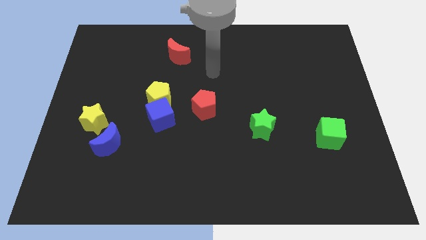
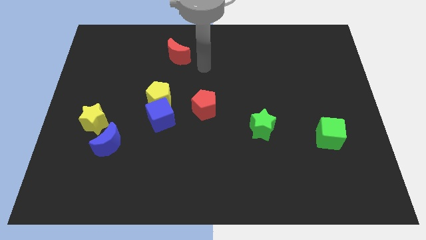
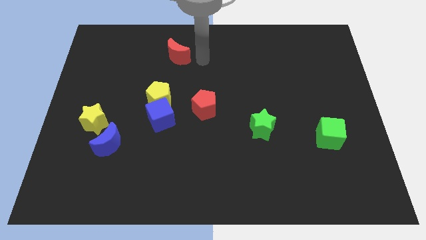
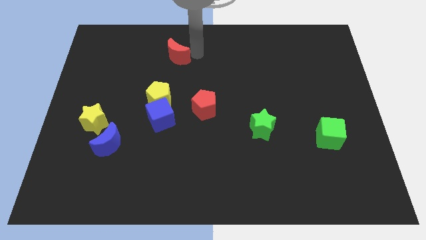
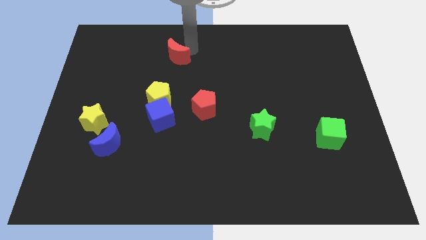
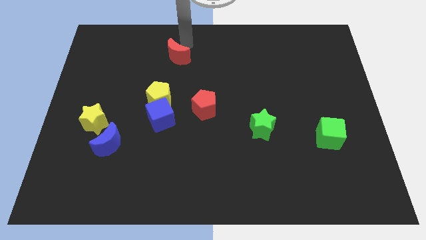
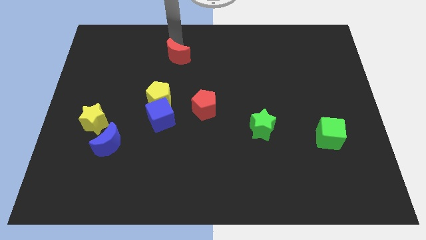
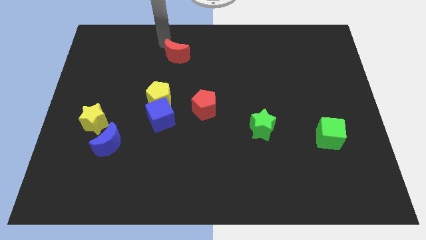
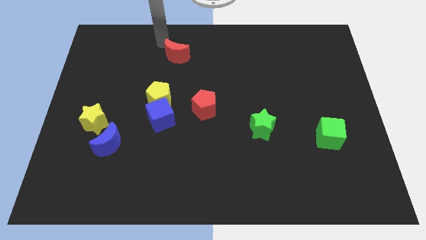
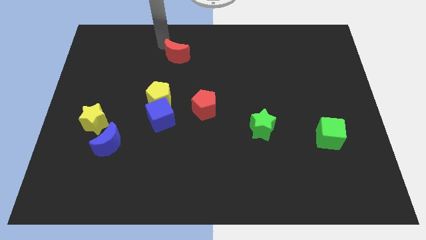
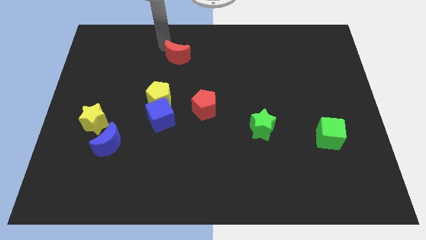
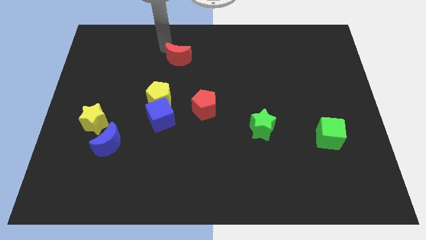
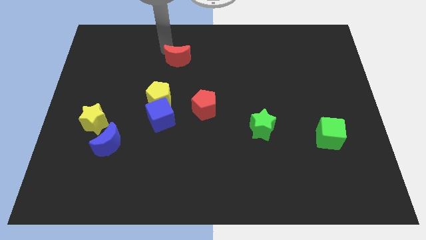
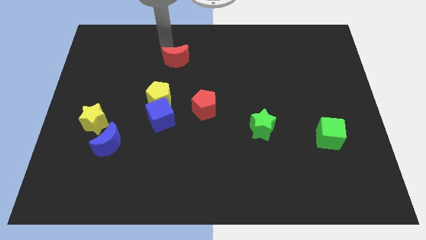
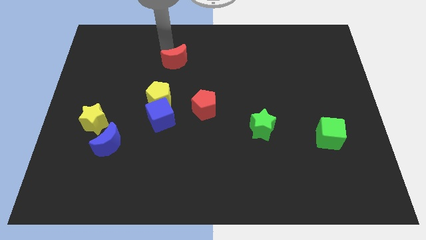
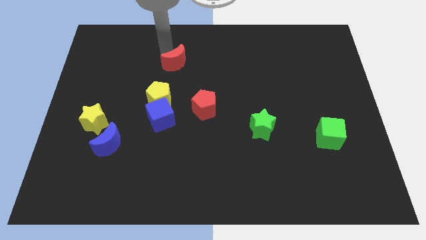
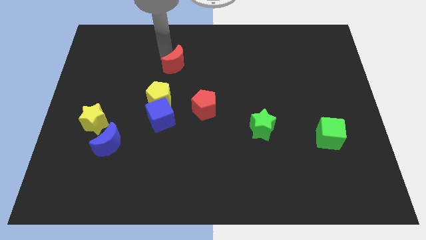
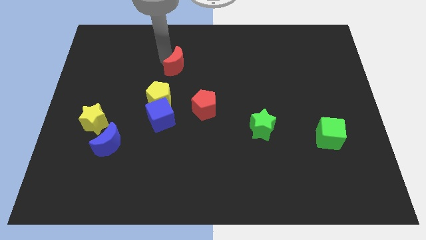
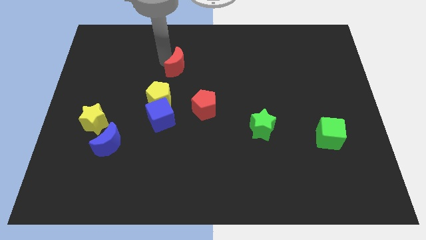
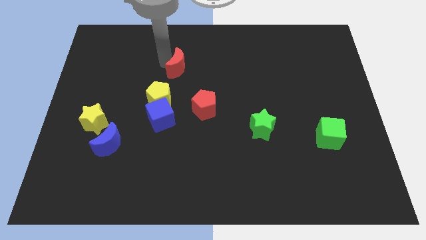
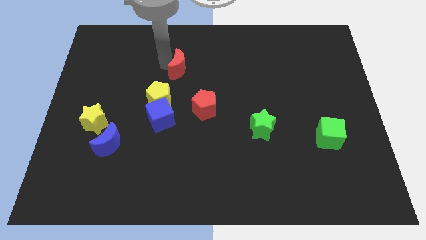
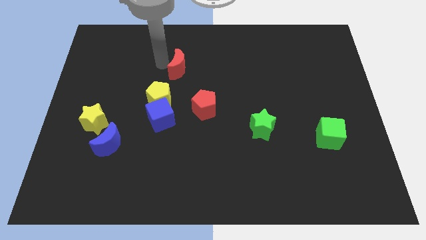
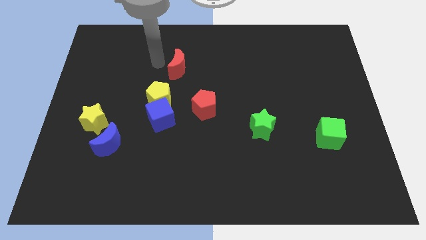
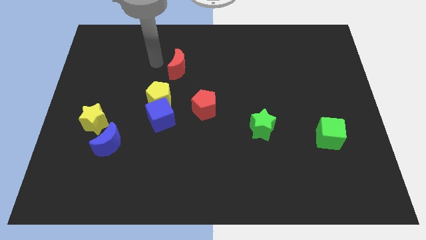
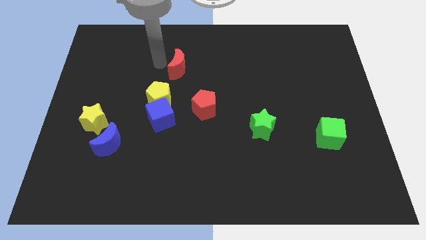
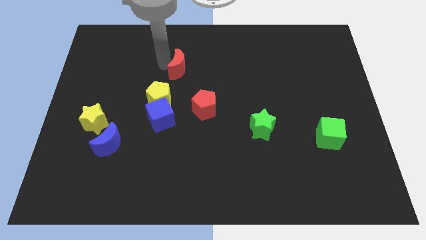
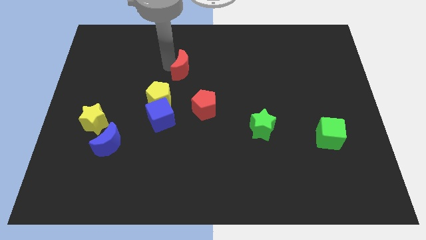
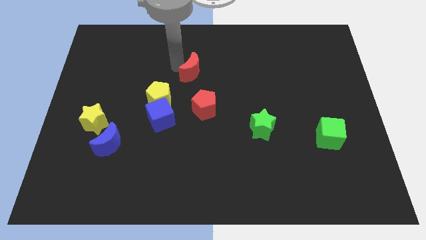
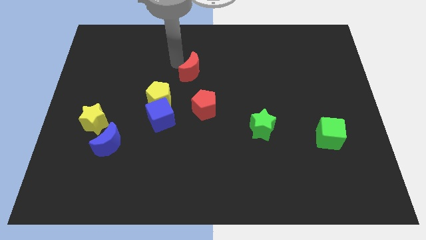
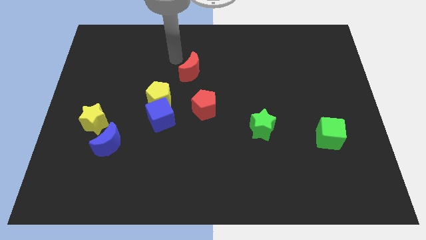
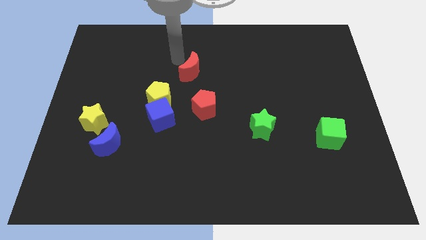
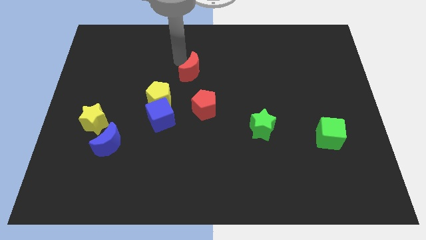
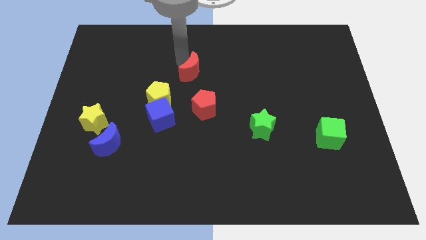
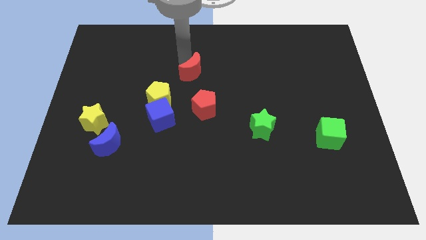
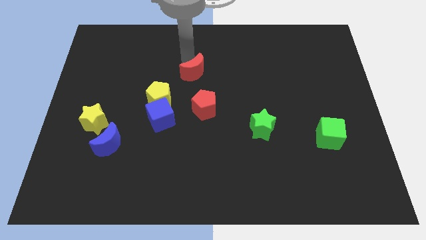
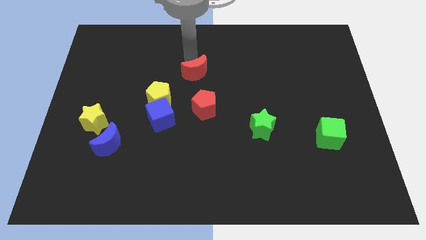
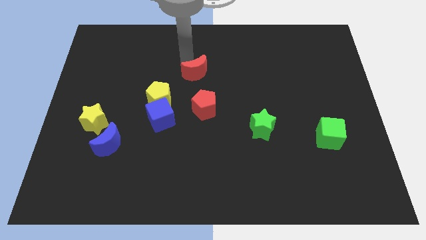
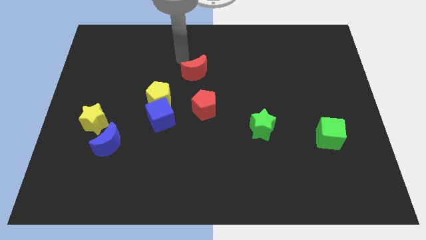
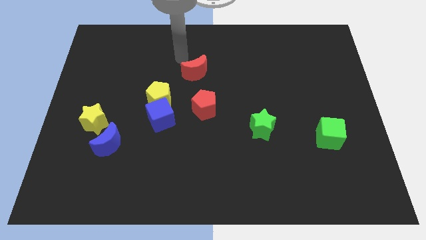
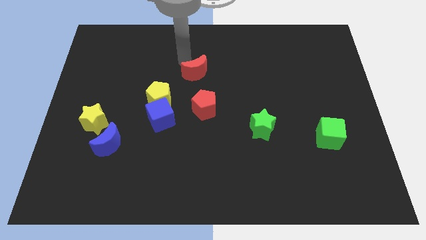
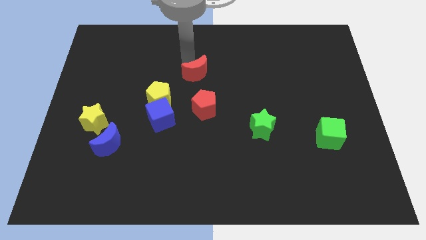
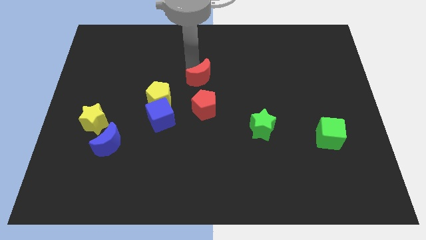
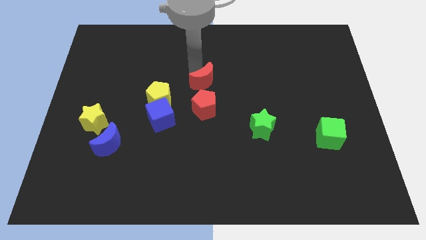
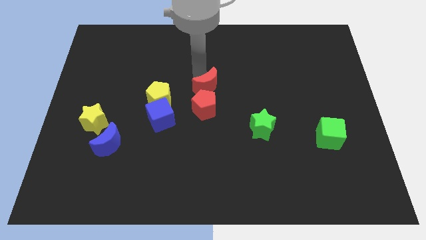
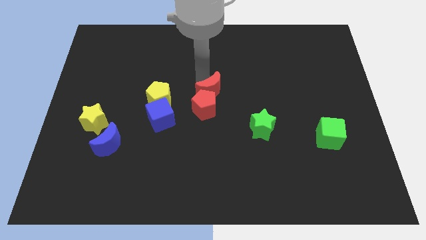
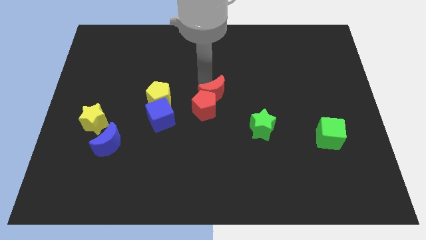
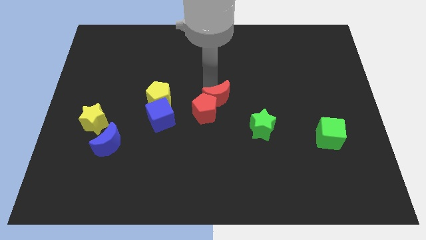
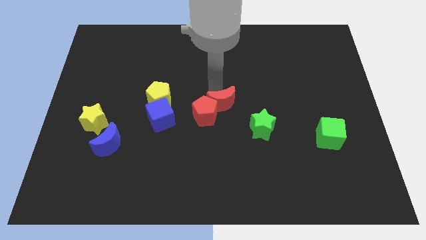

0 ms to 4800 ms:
move the red moon to the right of the blue cube

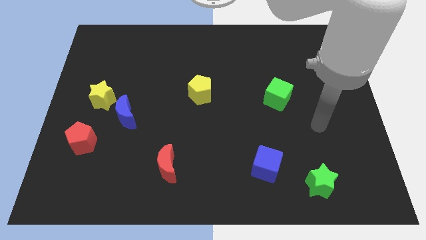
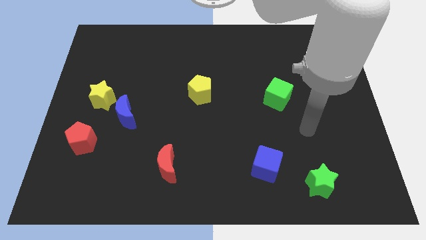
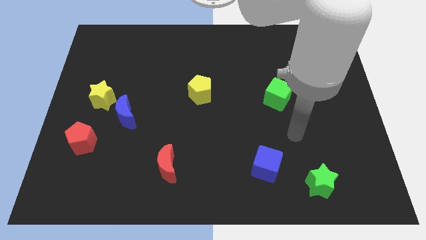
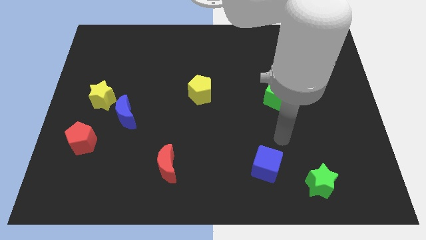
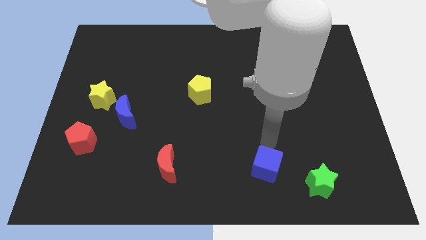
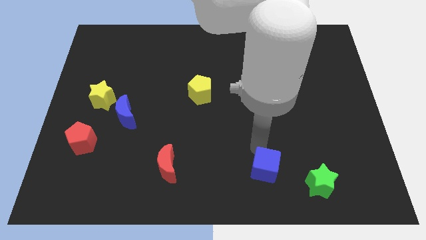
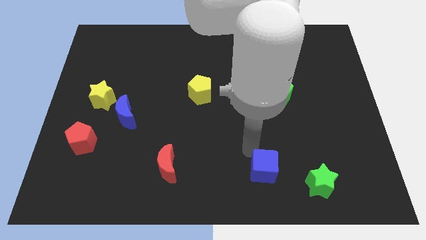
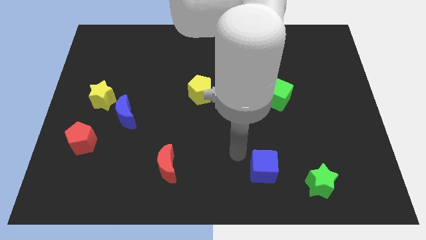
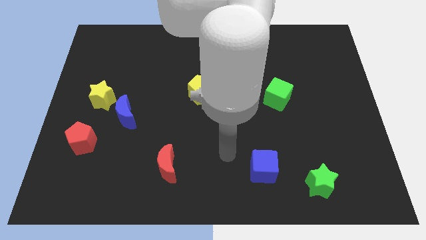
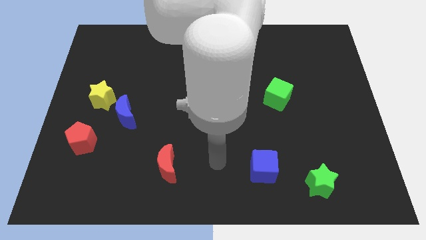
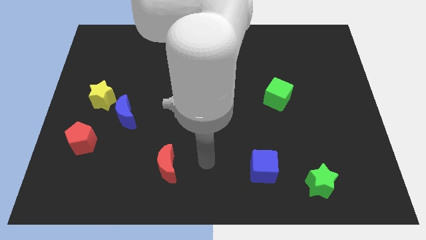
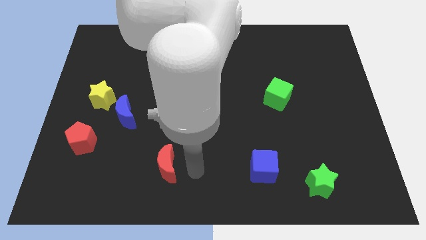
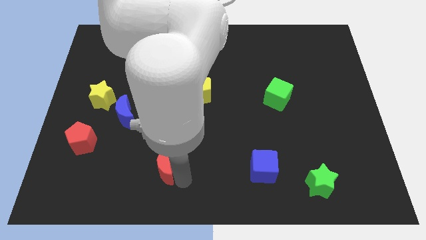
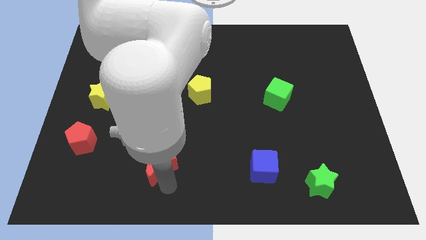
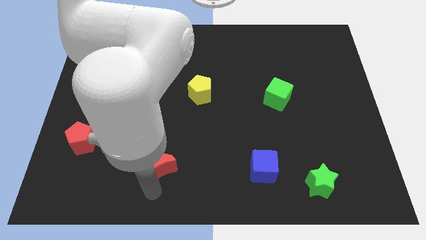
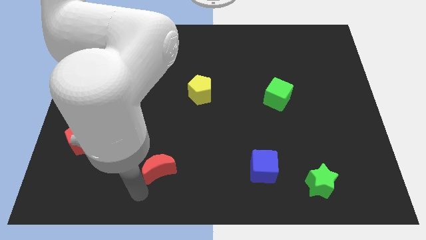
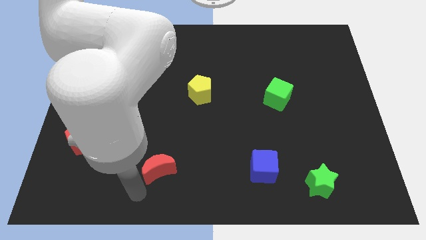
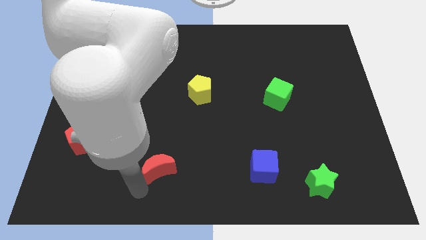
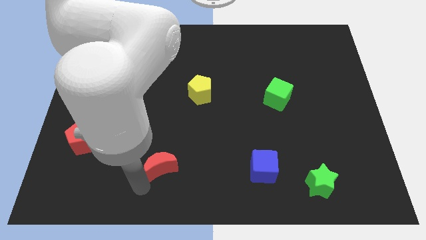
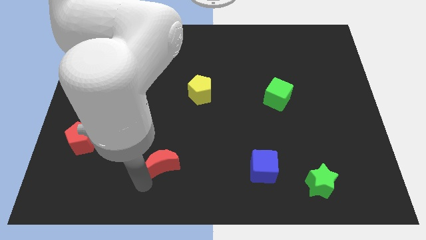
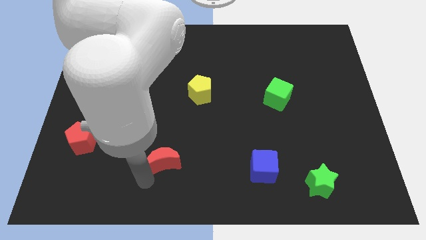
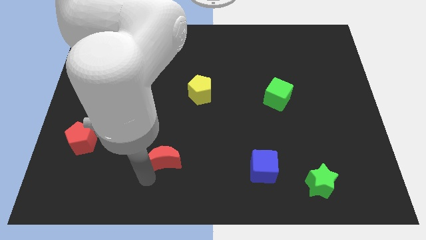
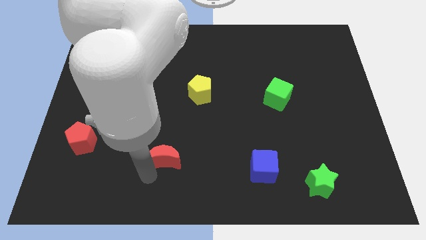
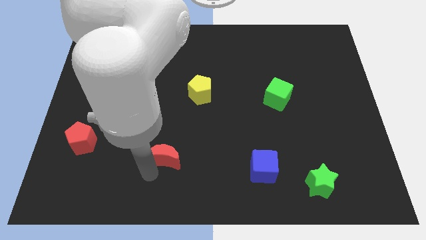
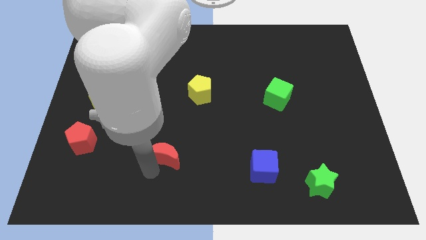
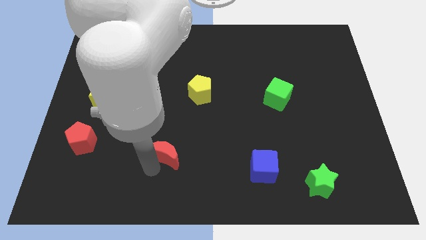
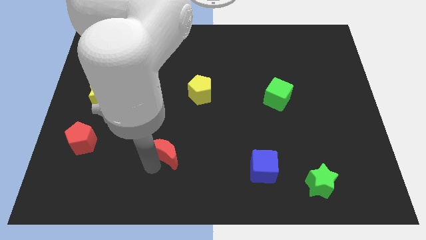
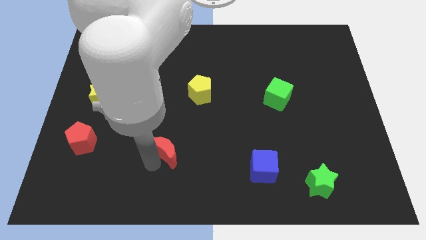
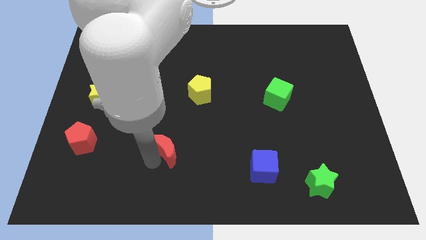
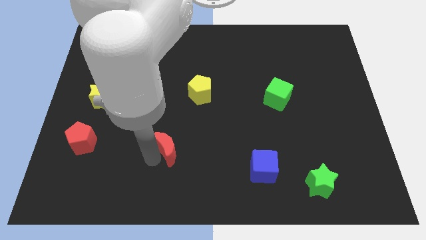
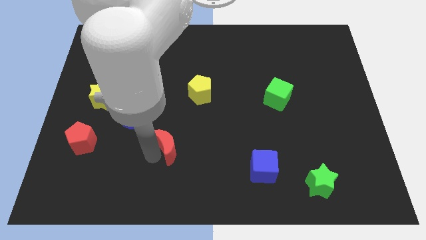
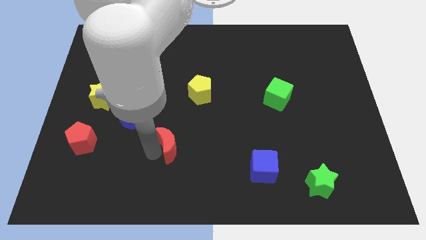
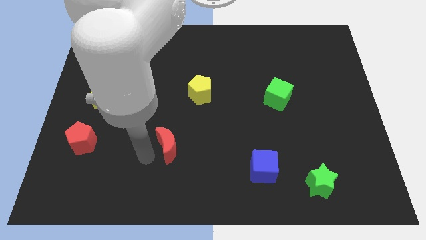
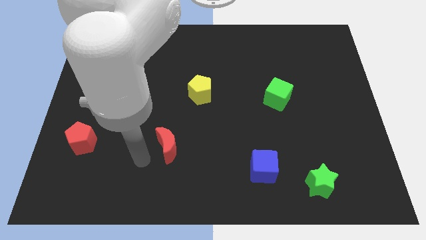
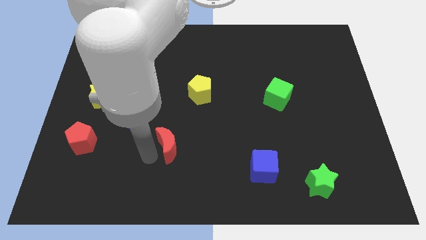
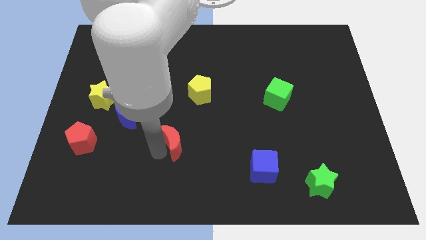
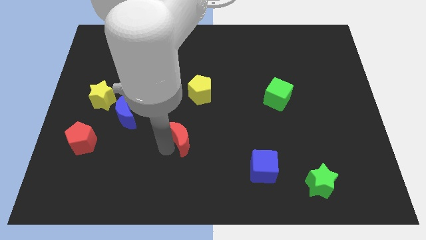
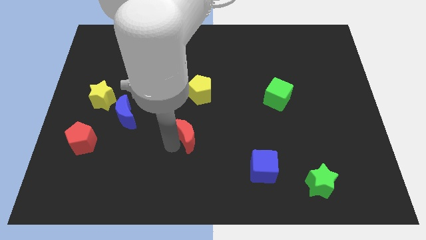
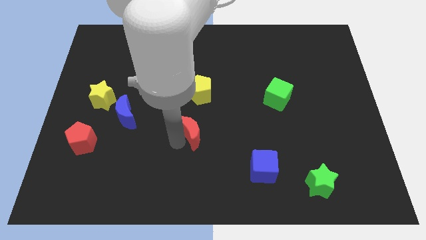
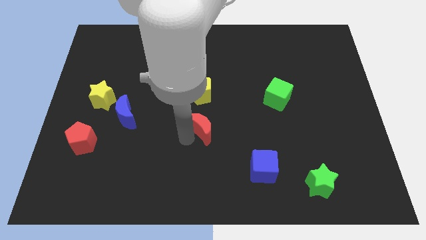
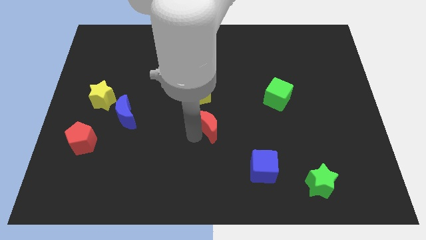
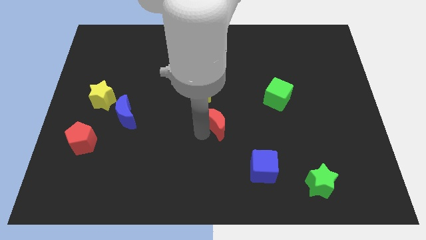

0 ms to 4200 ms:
put the red moon to the bottom right of the yellow pentagon
